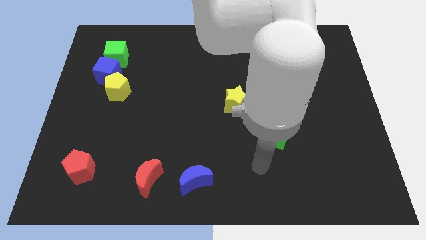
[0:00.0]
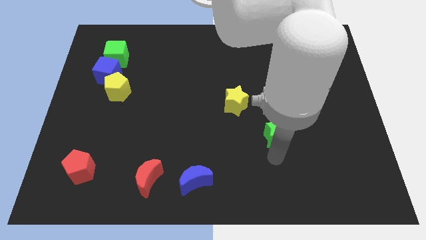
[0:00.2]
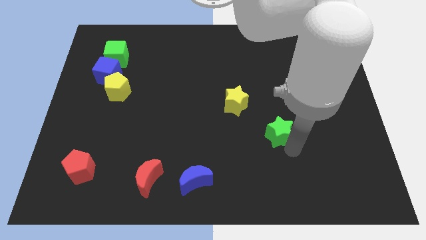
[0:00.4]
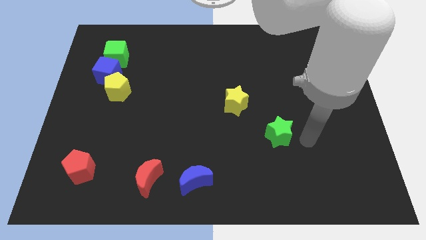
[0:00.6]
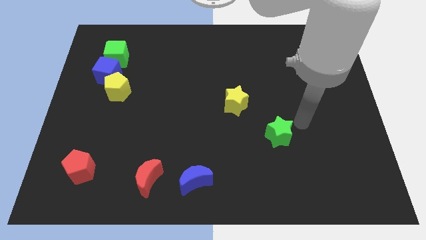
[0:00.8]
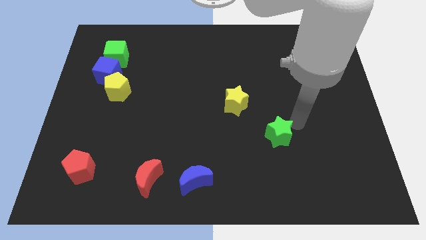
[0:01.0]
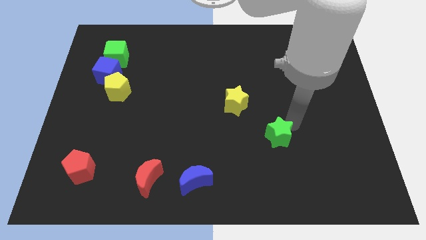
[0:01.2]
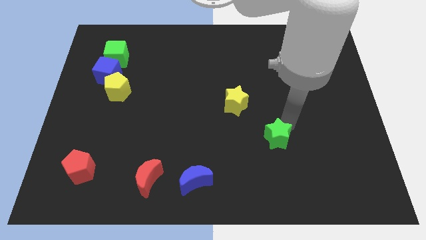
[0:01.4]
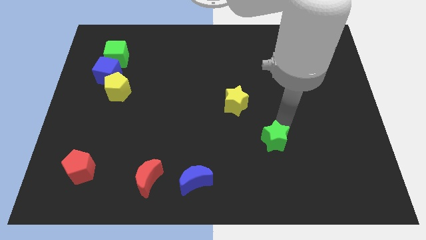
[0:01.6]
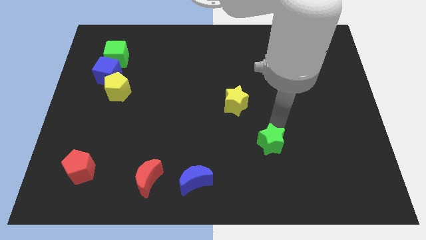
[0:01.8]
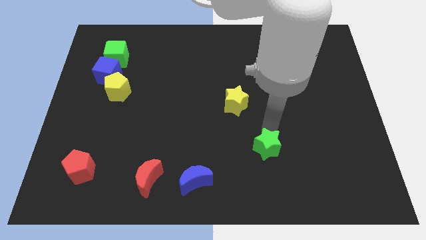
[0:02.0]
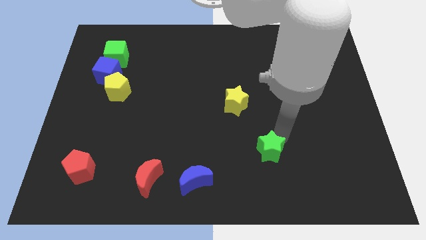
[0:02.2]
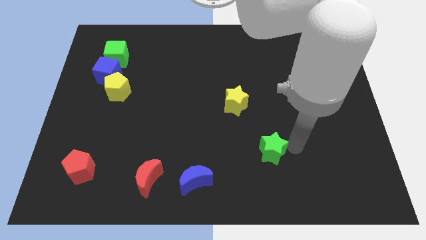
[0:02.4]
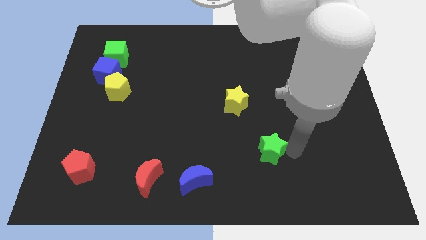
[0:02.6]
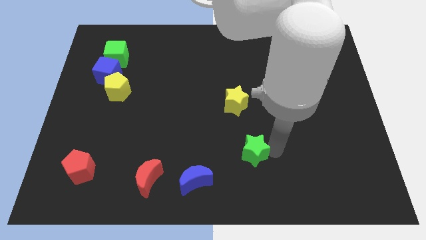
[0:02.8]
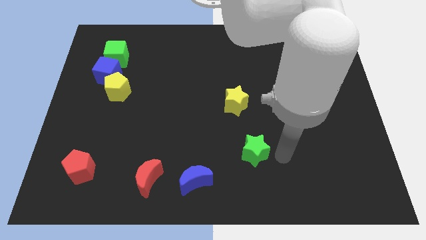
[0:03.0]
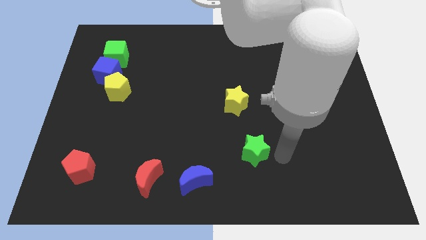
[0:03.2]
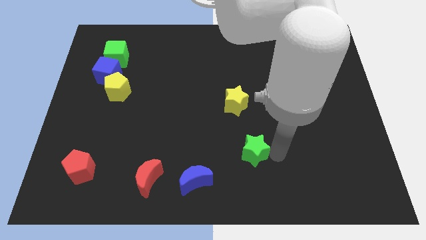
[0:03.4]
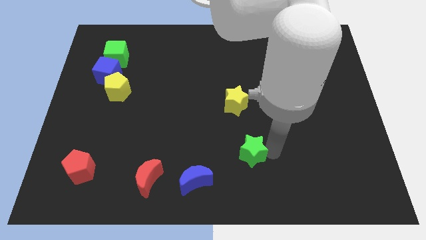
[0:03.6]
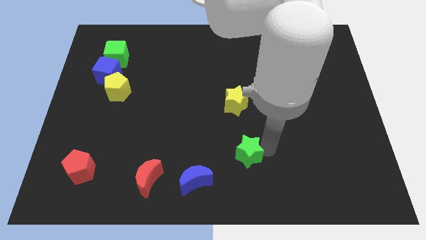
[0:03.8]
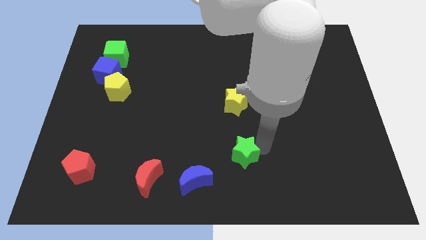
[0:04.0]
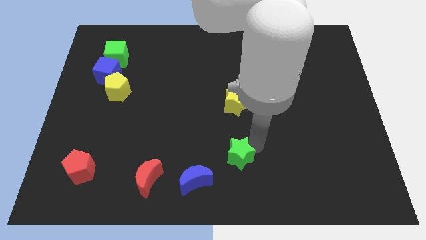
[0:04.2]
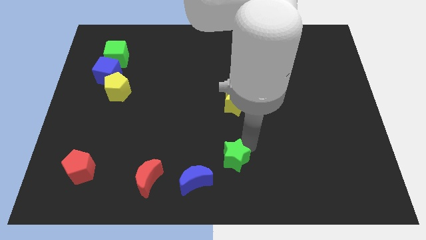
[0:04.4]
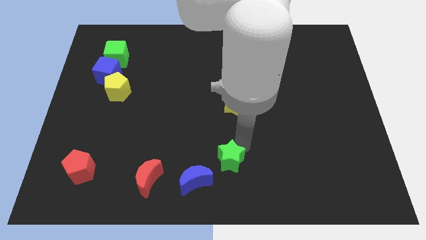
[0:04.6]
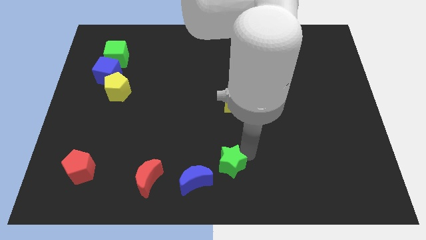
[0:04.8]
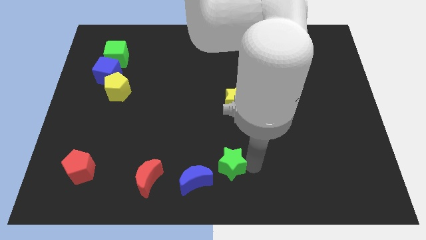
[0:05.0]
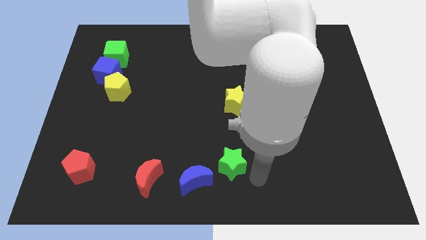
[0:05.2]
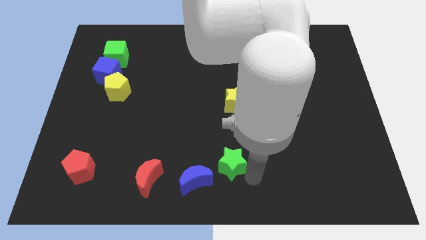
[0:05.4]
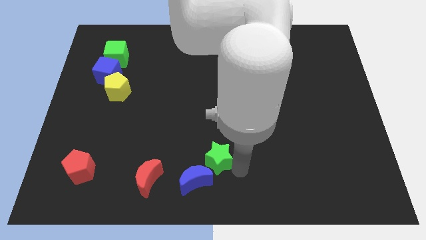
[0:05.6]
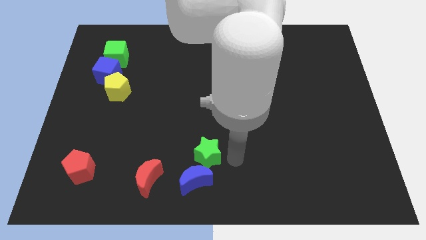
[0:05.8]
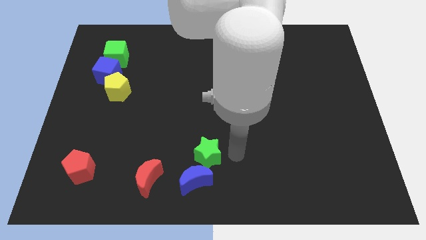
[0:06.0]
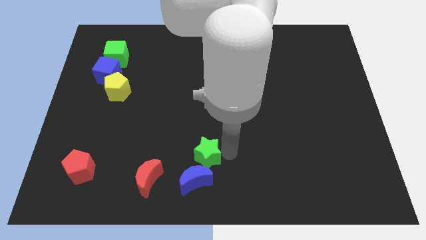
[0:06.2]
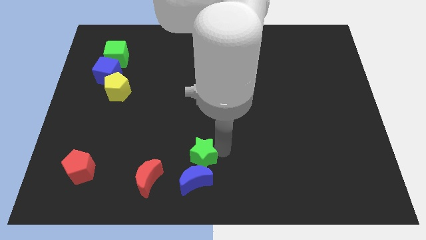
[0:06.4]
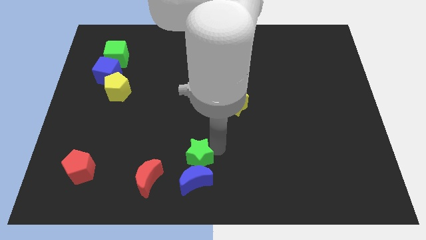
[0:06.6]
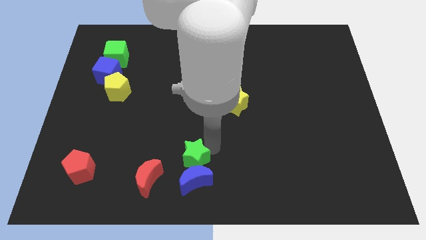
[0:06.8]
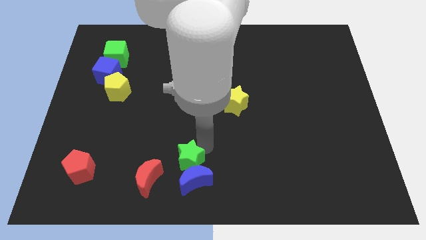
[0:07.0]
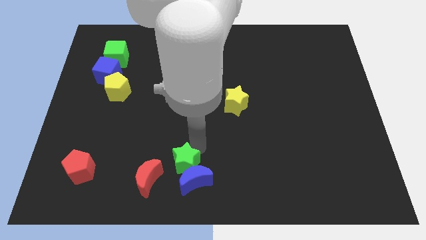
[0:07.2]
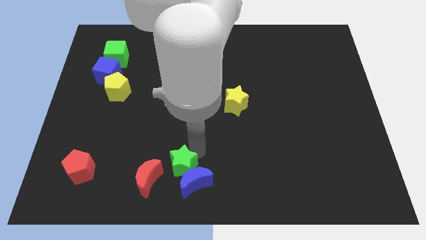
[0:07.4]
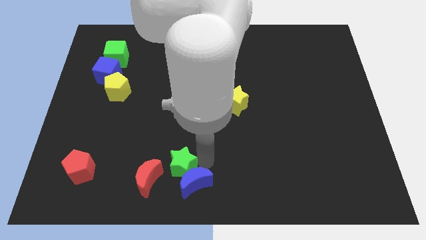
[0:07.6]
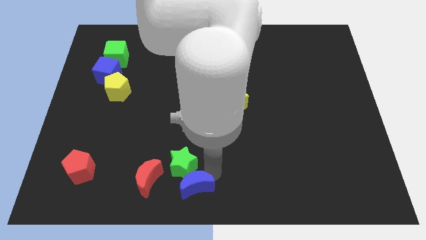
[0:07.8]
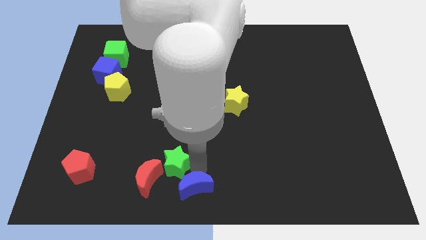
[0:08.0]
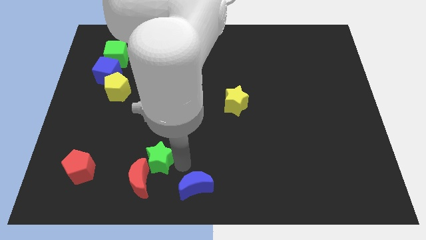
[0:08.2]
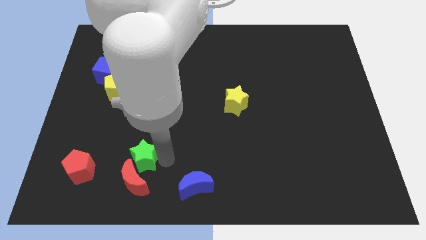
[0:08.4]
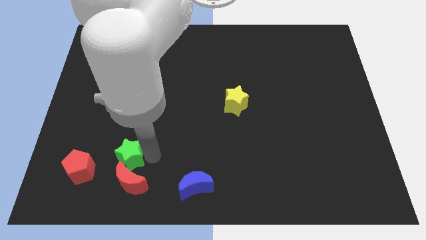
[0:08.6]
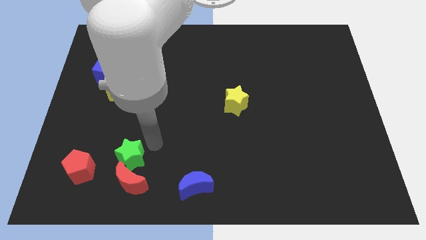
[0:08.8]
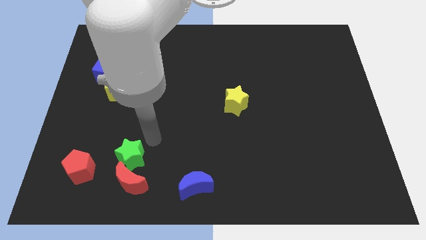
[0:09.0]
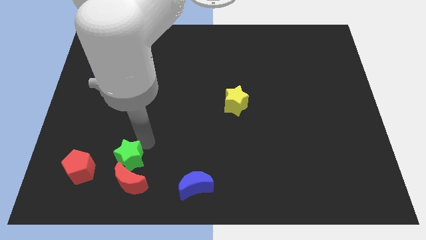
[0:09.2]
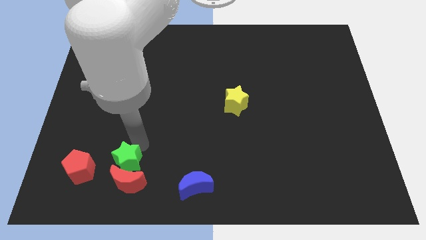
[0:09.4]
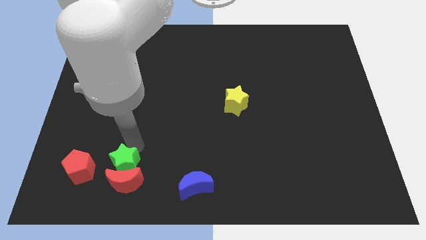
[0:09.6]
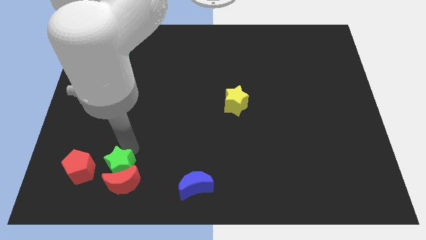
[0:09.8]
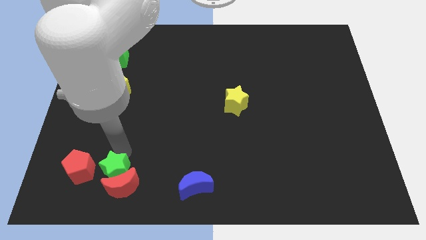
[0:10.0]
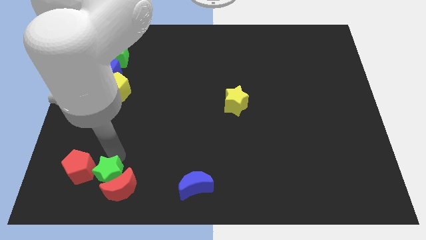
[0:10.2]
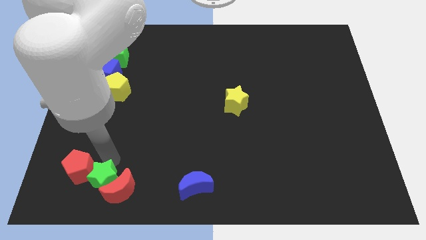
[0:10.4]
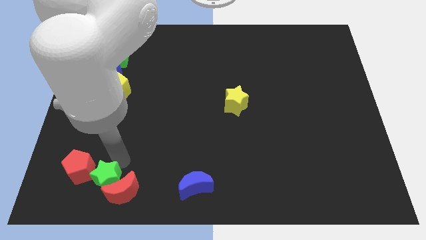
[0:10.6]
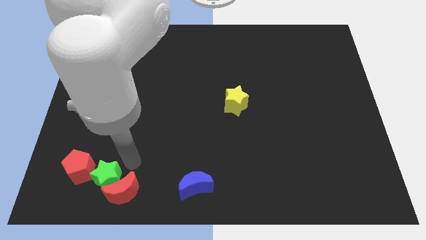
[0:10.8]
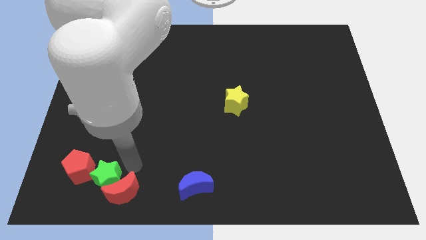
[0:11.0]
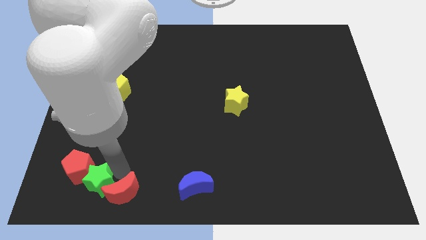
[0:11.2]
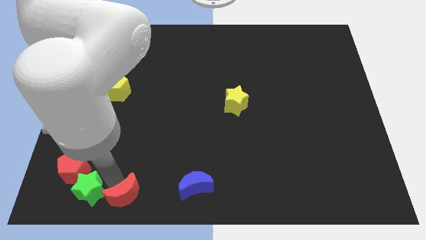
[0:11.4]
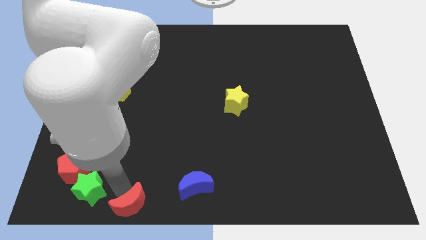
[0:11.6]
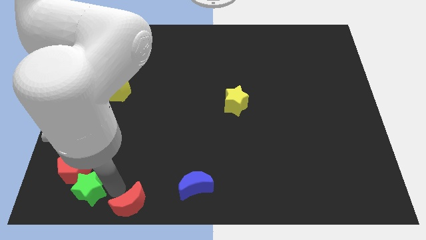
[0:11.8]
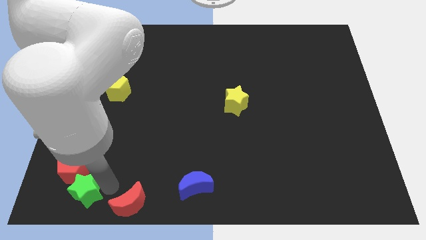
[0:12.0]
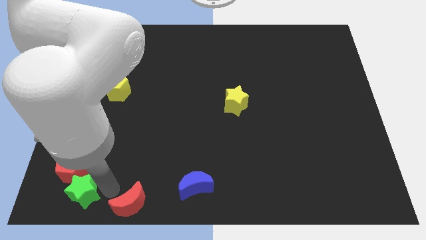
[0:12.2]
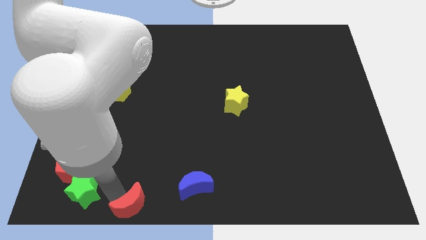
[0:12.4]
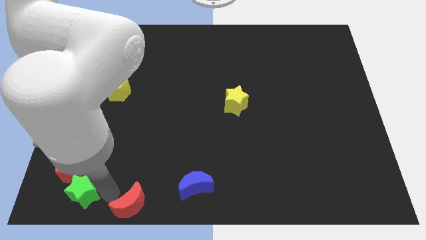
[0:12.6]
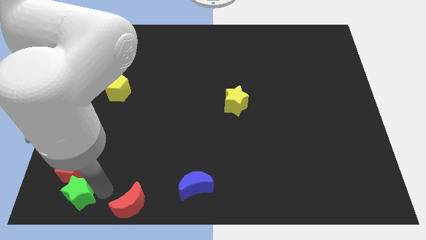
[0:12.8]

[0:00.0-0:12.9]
slide the green star to the lower left corner
